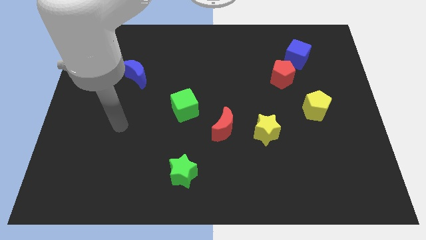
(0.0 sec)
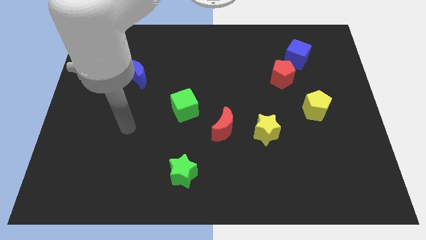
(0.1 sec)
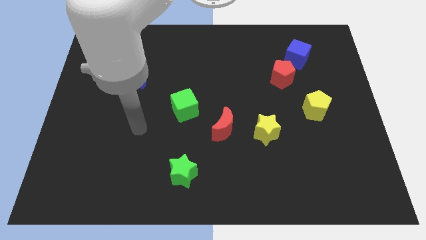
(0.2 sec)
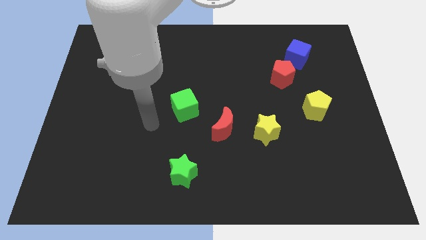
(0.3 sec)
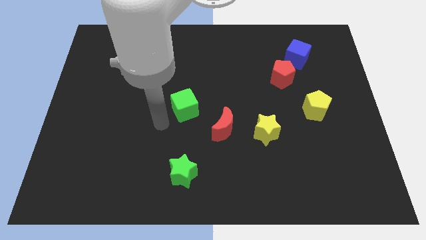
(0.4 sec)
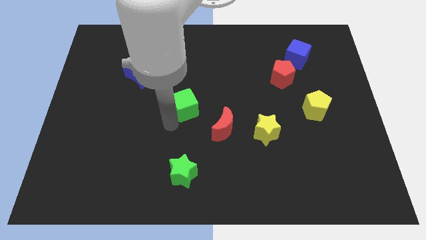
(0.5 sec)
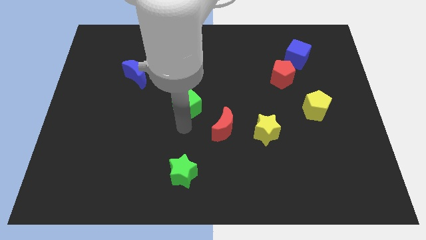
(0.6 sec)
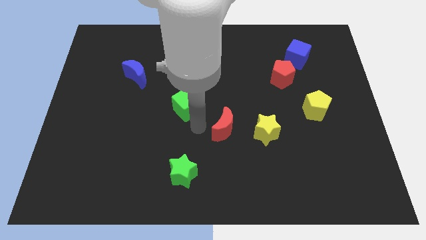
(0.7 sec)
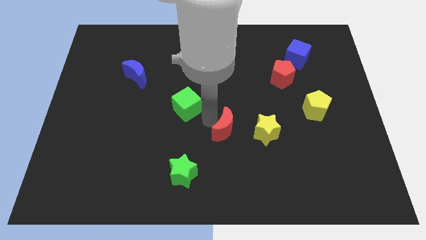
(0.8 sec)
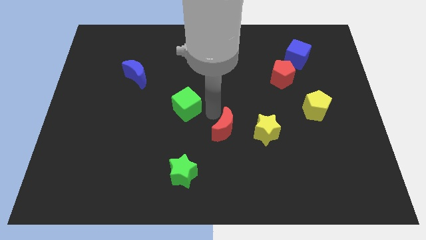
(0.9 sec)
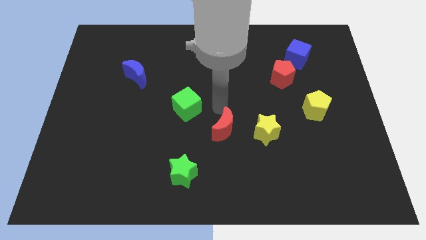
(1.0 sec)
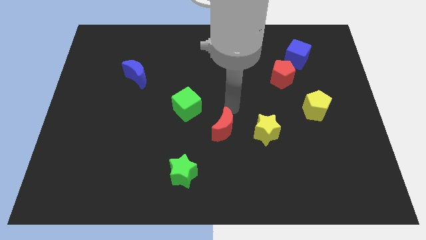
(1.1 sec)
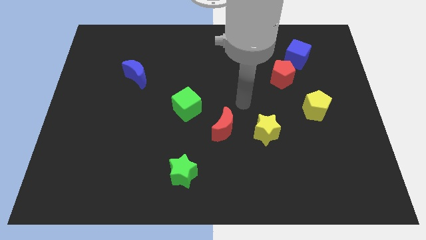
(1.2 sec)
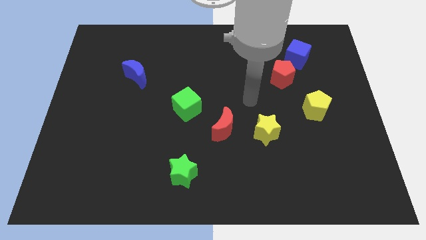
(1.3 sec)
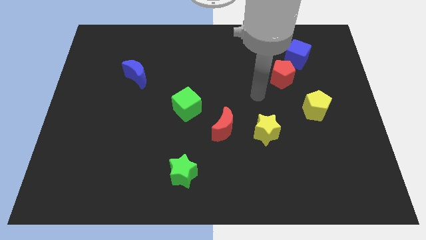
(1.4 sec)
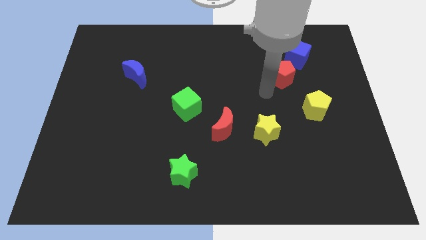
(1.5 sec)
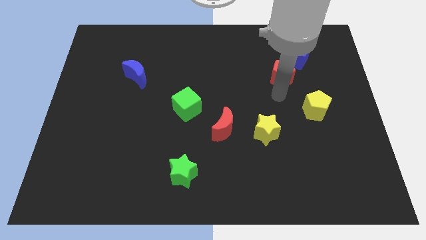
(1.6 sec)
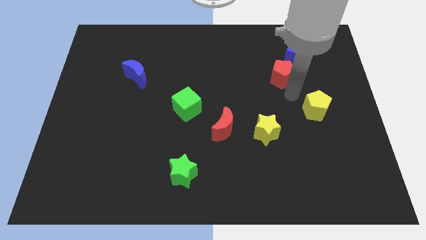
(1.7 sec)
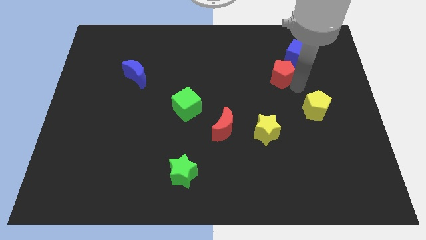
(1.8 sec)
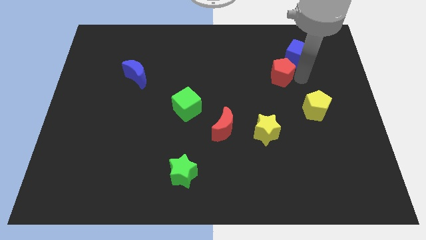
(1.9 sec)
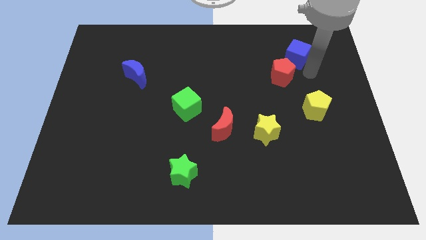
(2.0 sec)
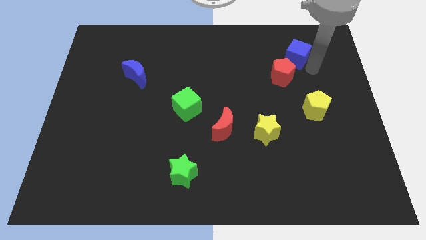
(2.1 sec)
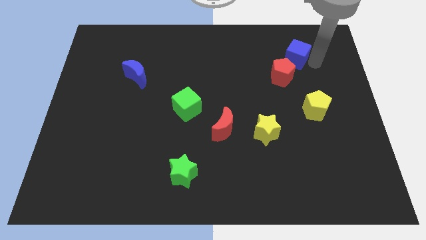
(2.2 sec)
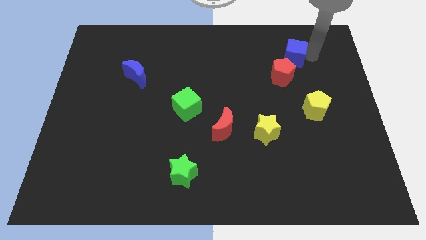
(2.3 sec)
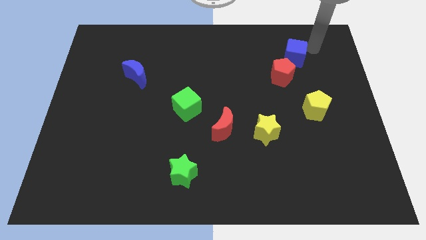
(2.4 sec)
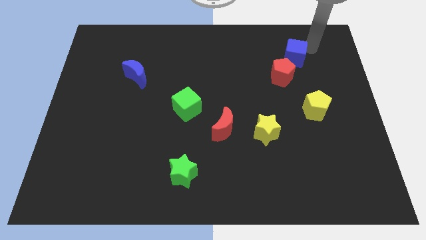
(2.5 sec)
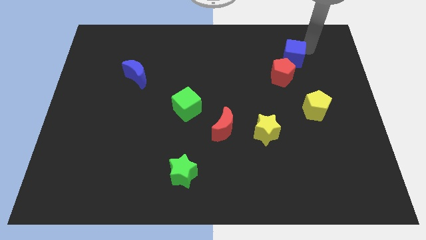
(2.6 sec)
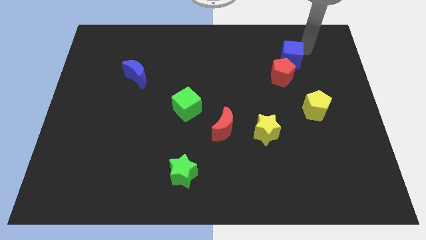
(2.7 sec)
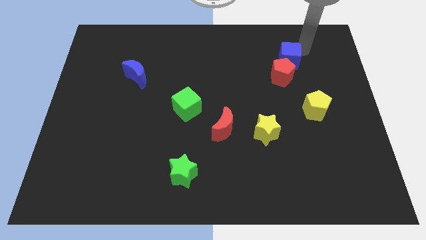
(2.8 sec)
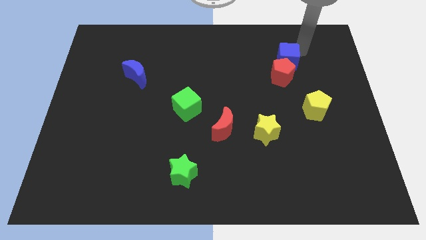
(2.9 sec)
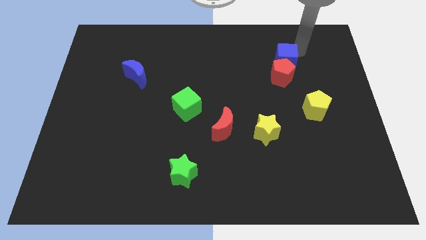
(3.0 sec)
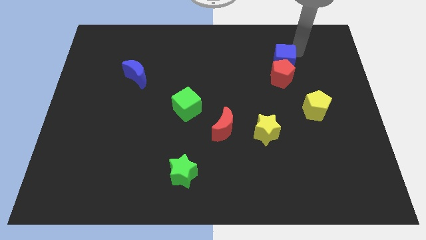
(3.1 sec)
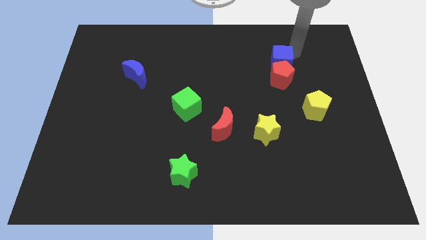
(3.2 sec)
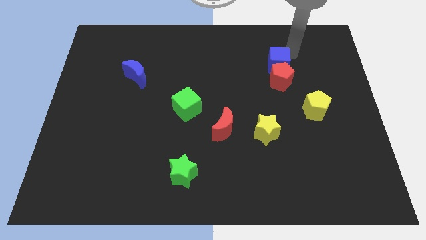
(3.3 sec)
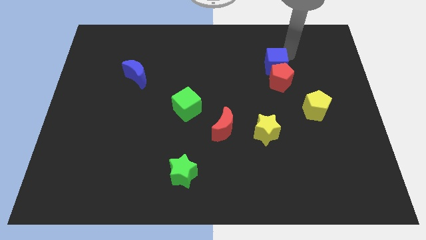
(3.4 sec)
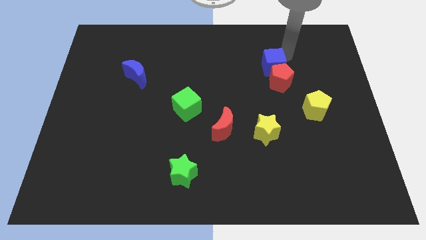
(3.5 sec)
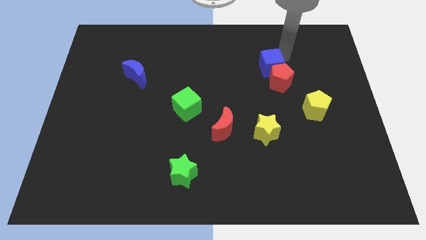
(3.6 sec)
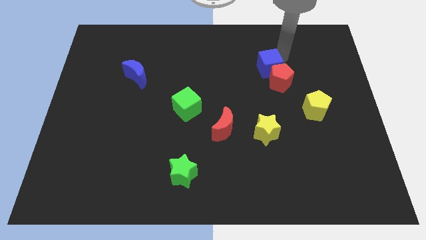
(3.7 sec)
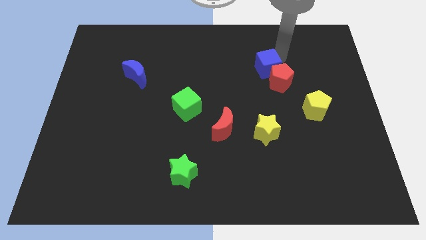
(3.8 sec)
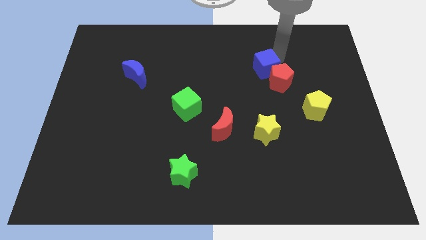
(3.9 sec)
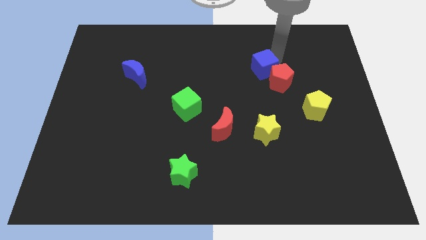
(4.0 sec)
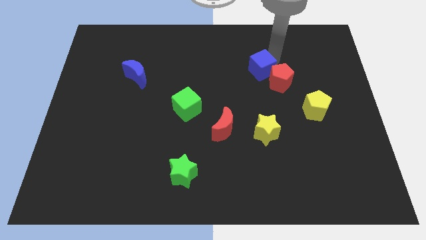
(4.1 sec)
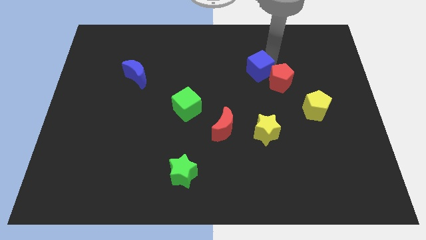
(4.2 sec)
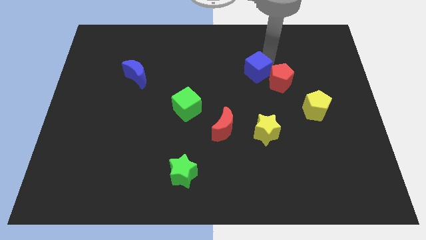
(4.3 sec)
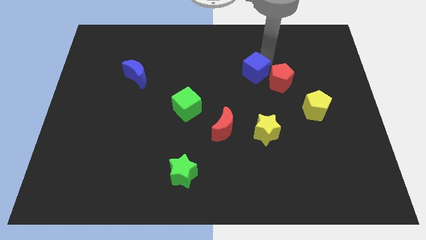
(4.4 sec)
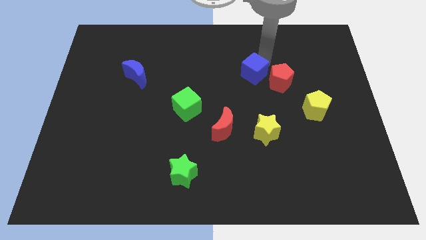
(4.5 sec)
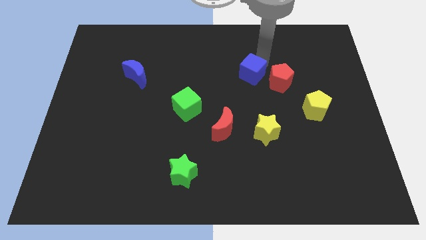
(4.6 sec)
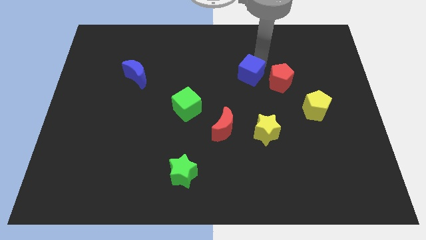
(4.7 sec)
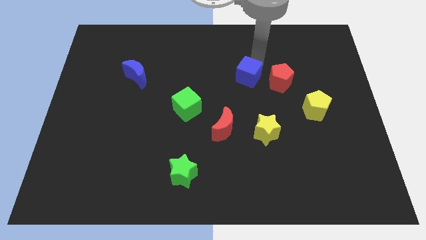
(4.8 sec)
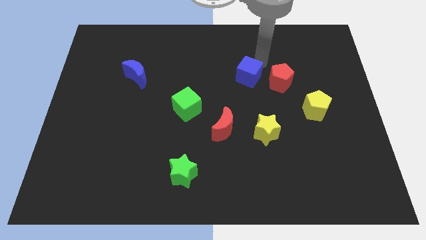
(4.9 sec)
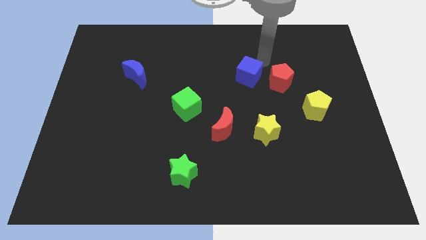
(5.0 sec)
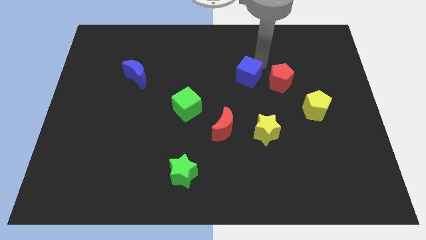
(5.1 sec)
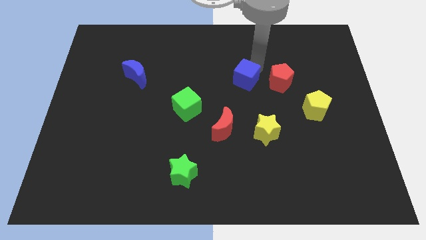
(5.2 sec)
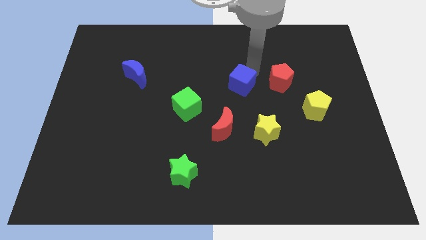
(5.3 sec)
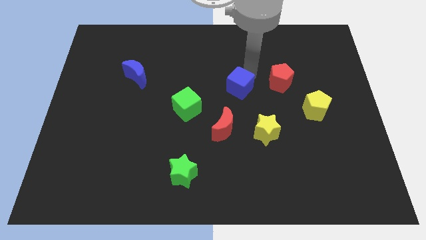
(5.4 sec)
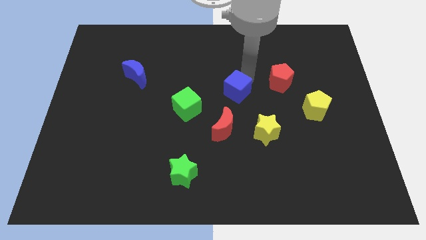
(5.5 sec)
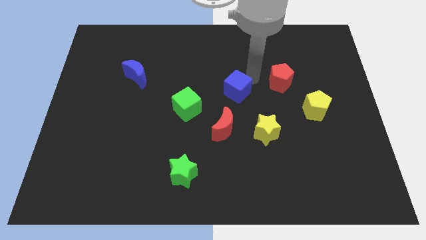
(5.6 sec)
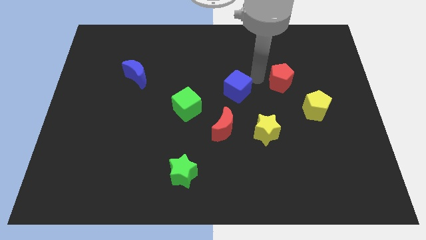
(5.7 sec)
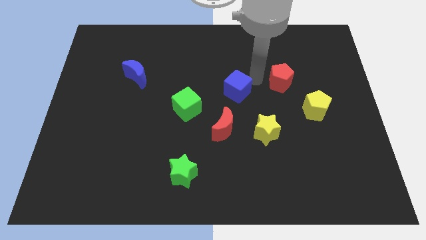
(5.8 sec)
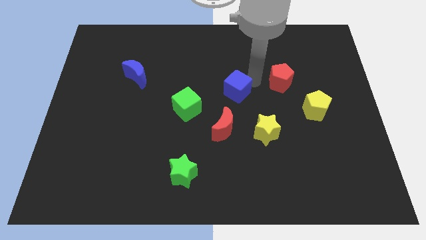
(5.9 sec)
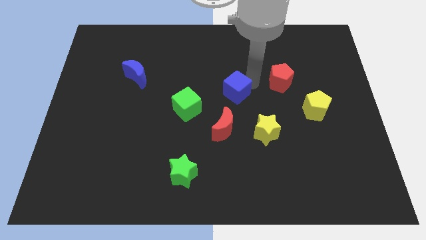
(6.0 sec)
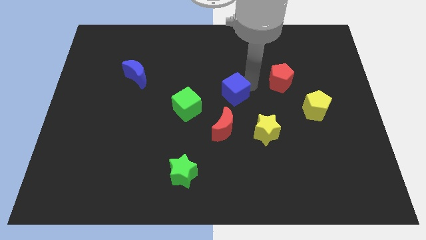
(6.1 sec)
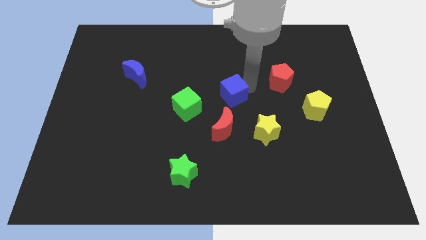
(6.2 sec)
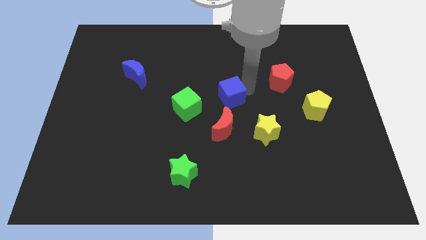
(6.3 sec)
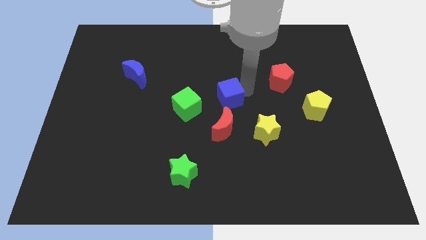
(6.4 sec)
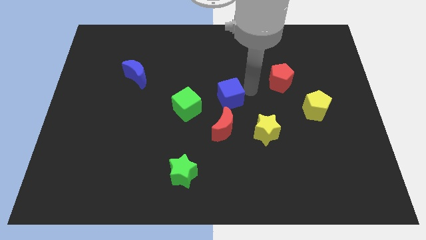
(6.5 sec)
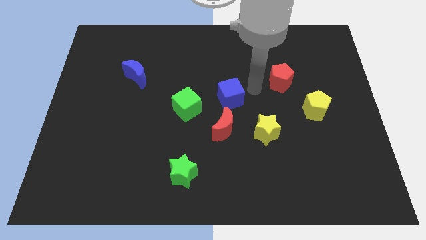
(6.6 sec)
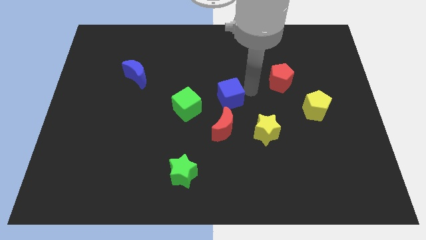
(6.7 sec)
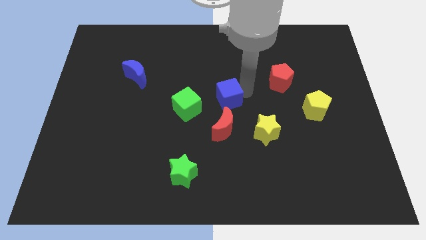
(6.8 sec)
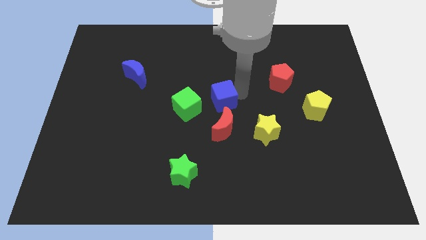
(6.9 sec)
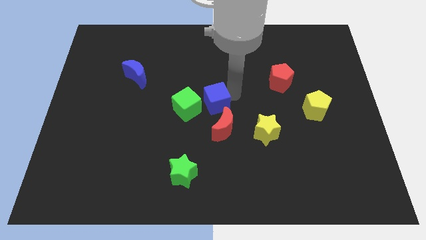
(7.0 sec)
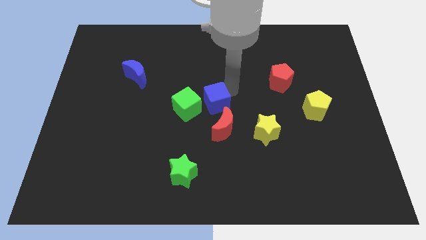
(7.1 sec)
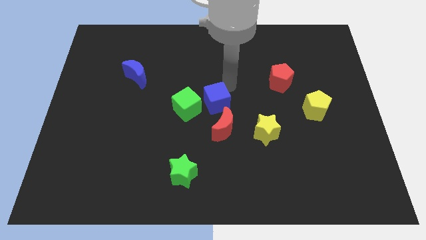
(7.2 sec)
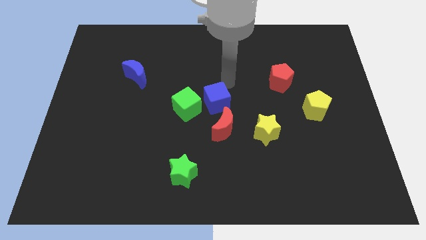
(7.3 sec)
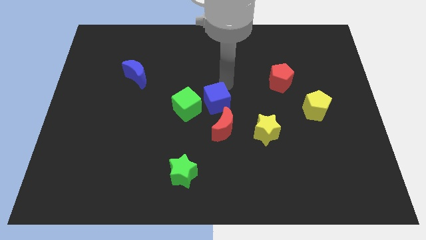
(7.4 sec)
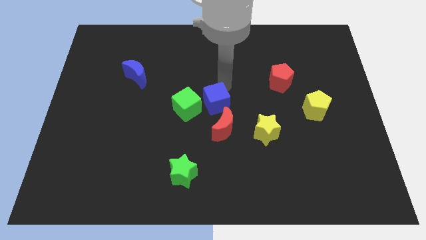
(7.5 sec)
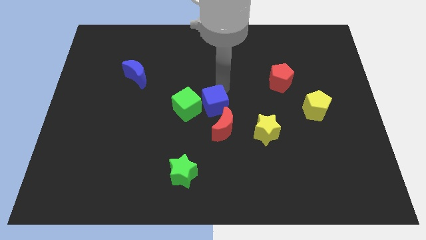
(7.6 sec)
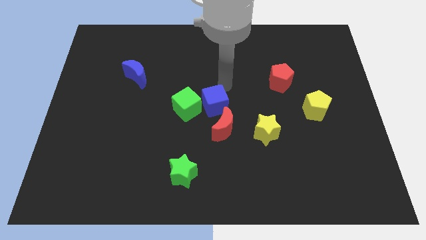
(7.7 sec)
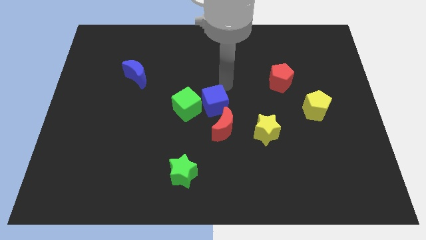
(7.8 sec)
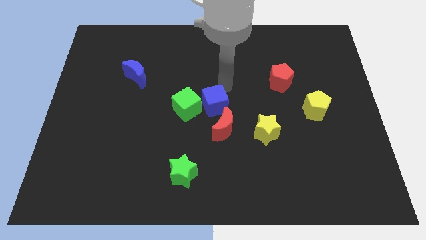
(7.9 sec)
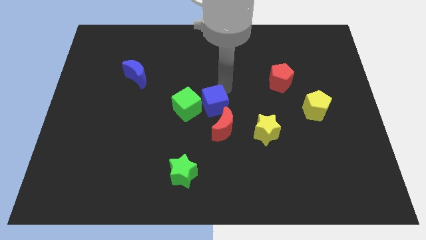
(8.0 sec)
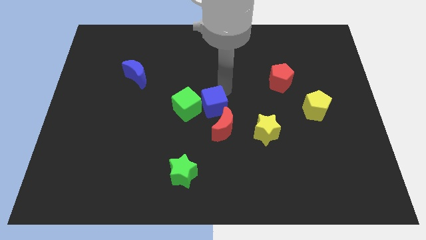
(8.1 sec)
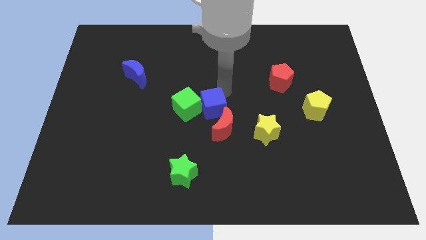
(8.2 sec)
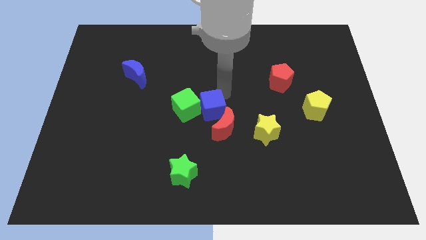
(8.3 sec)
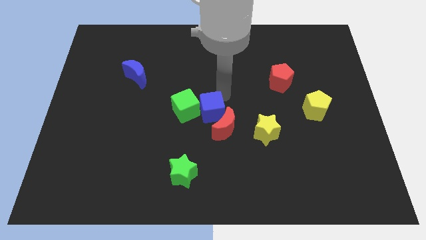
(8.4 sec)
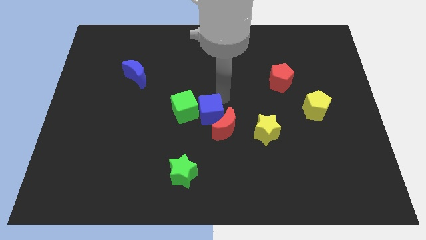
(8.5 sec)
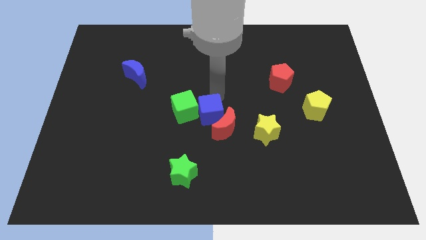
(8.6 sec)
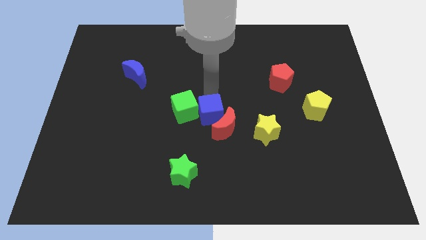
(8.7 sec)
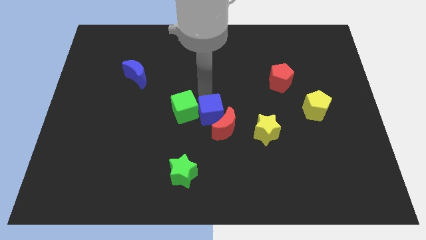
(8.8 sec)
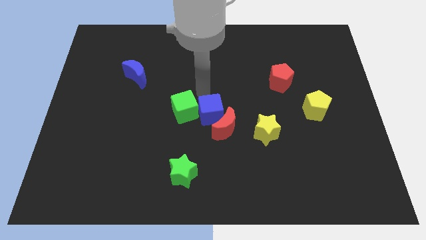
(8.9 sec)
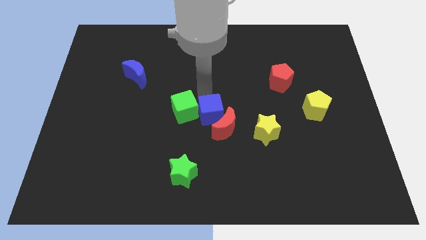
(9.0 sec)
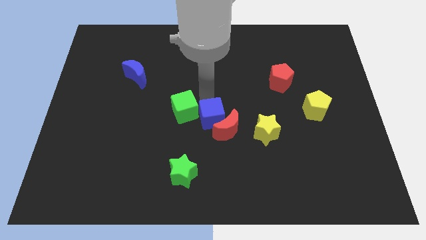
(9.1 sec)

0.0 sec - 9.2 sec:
move the blue cube just left of the yellow star
